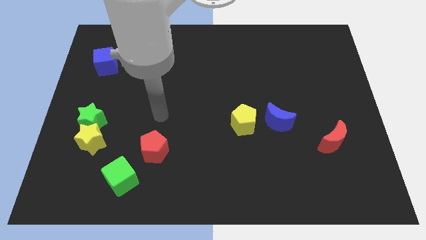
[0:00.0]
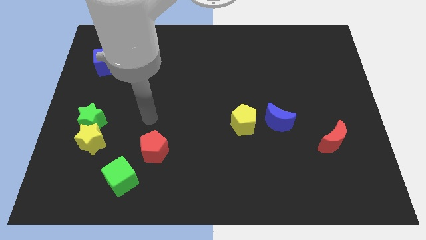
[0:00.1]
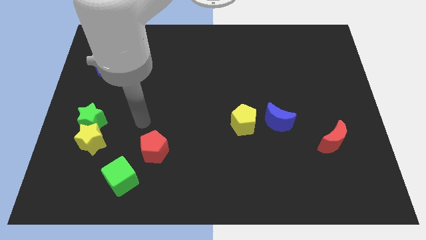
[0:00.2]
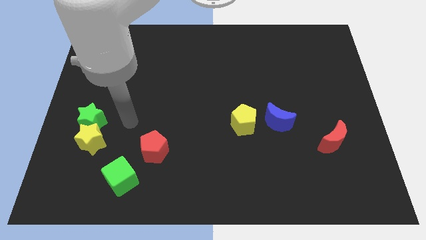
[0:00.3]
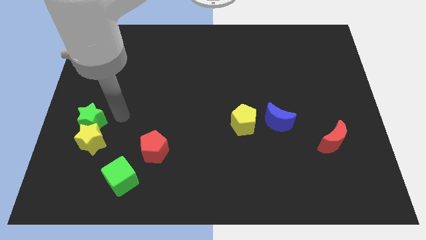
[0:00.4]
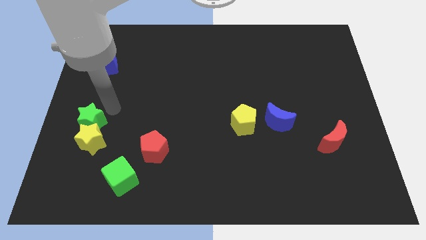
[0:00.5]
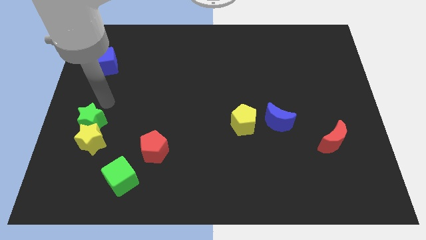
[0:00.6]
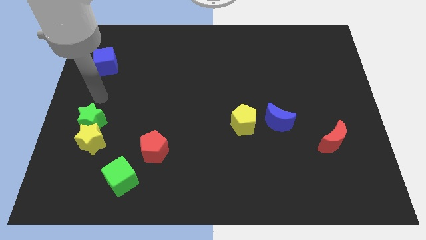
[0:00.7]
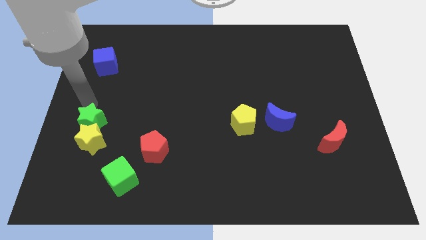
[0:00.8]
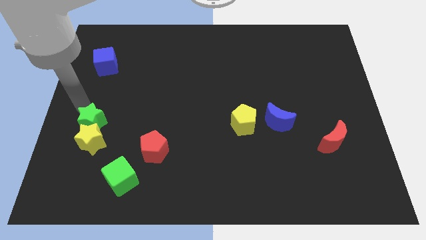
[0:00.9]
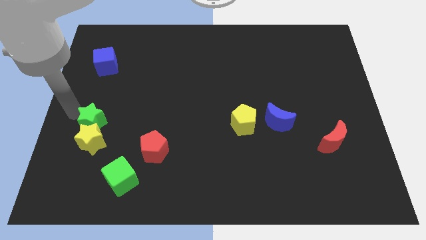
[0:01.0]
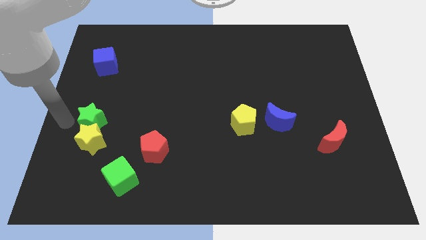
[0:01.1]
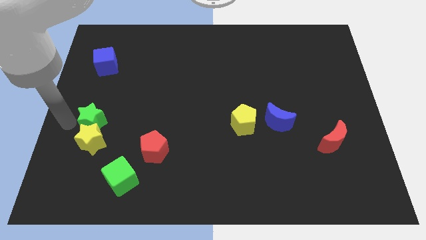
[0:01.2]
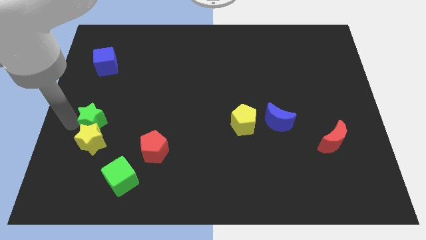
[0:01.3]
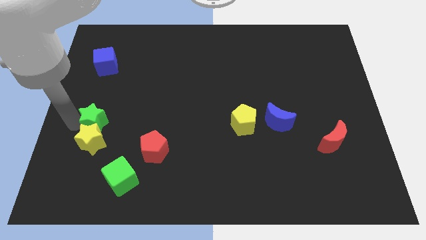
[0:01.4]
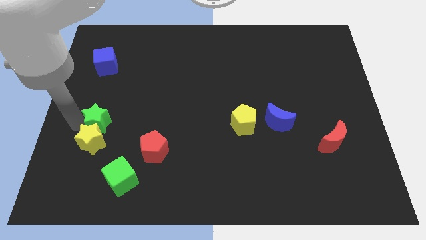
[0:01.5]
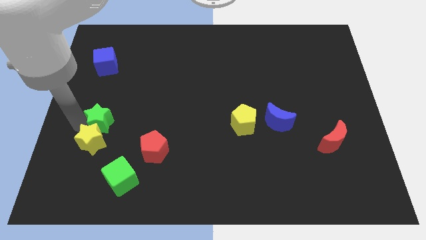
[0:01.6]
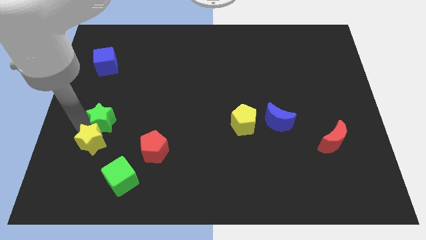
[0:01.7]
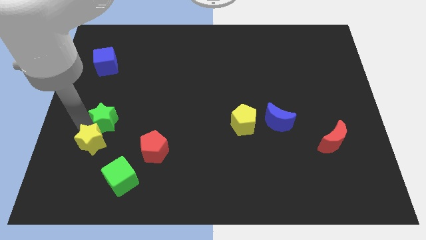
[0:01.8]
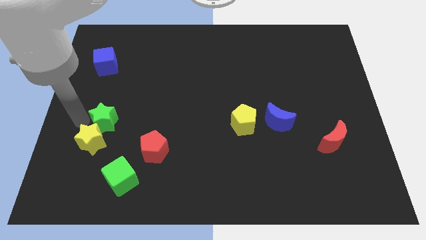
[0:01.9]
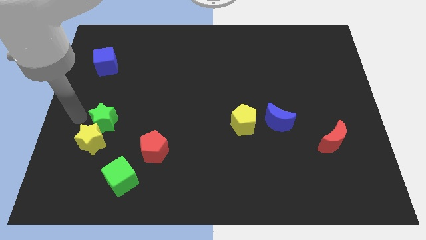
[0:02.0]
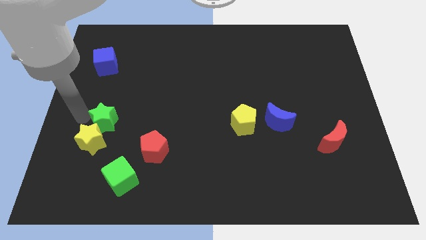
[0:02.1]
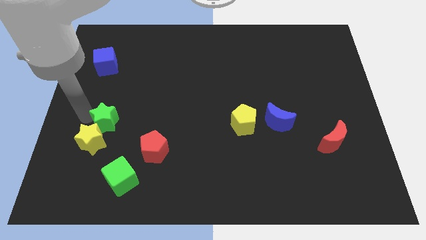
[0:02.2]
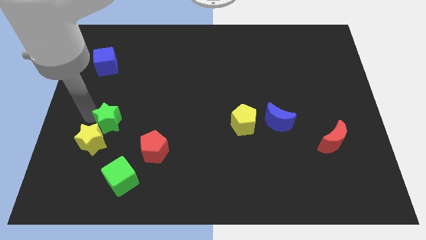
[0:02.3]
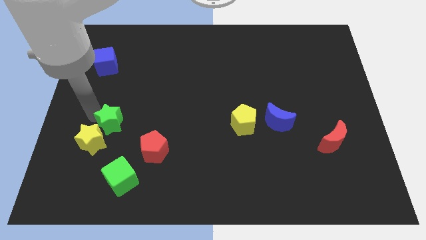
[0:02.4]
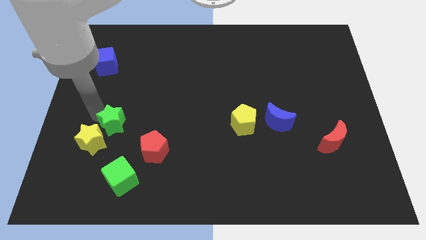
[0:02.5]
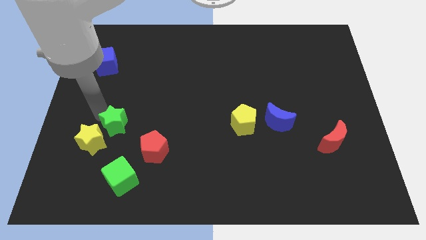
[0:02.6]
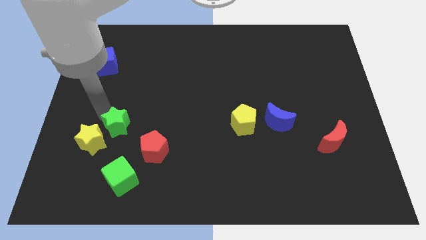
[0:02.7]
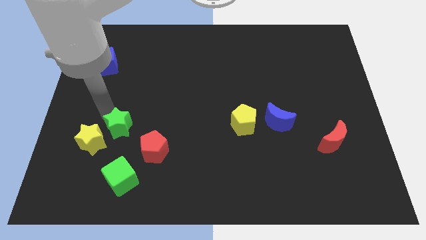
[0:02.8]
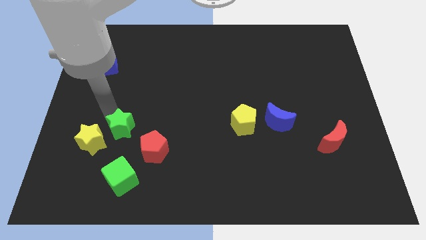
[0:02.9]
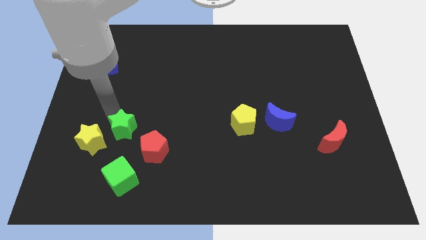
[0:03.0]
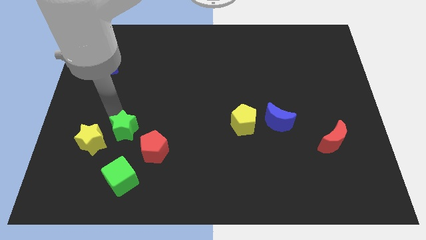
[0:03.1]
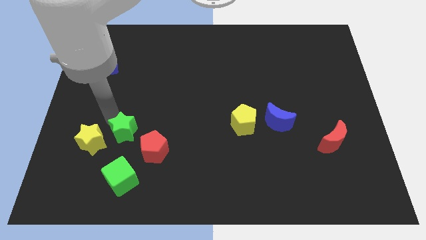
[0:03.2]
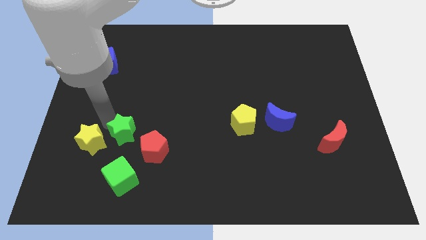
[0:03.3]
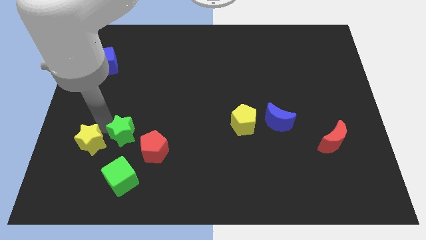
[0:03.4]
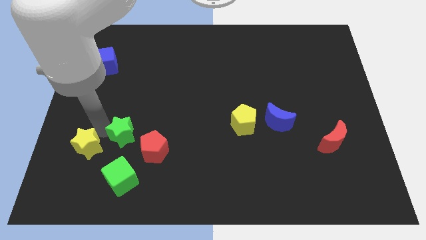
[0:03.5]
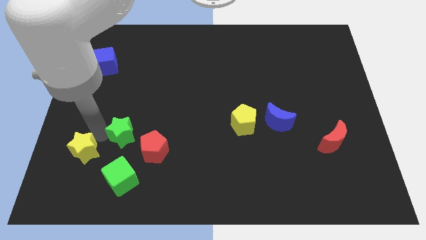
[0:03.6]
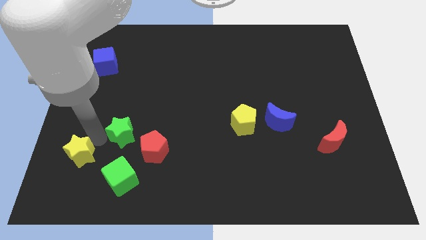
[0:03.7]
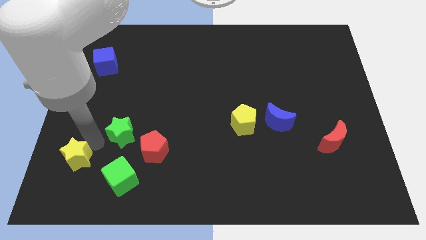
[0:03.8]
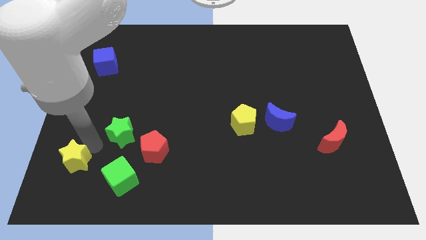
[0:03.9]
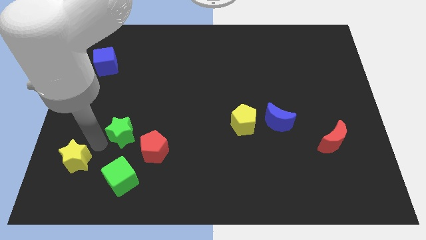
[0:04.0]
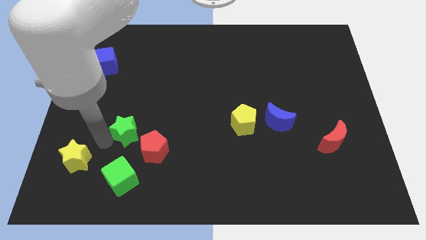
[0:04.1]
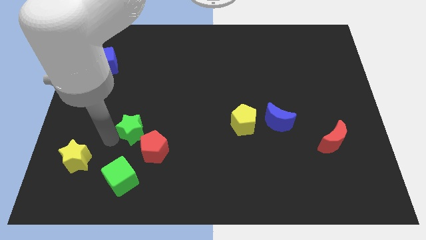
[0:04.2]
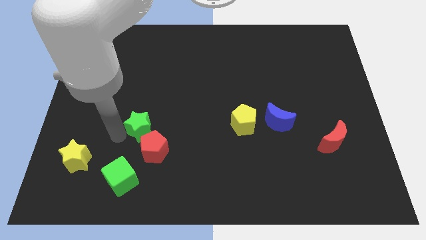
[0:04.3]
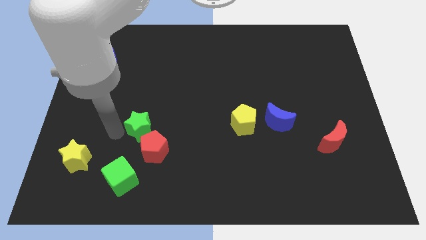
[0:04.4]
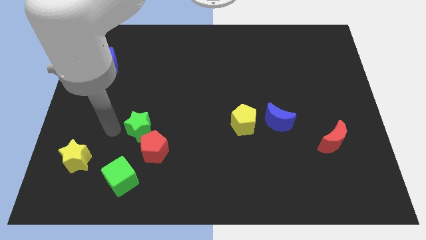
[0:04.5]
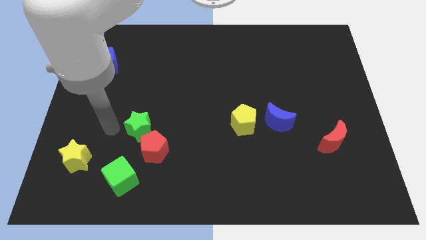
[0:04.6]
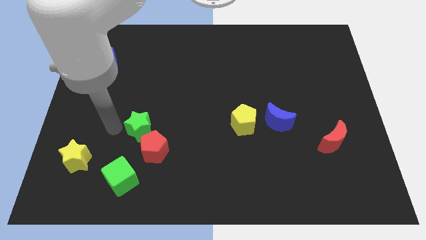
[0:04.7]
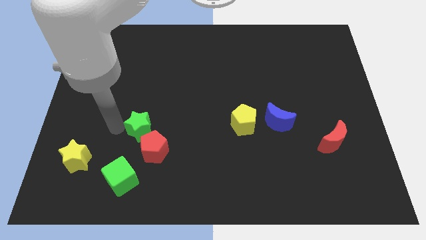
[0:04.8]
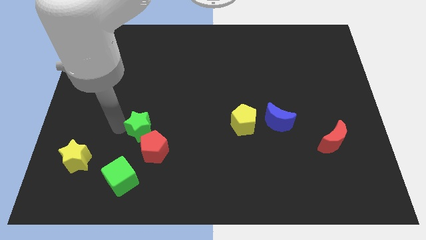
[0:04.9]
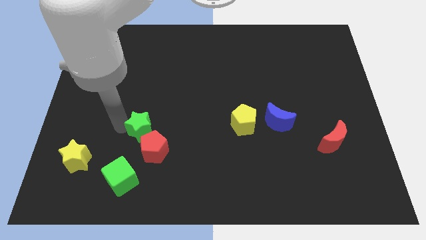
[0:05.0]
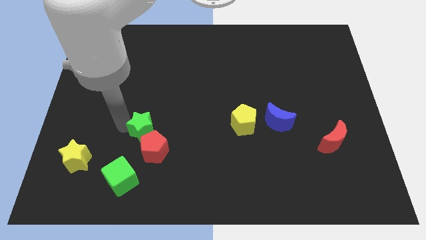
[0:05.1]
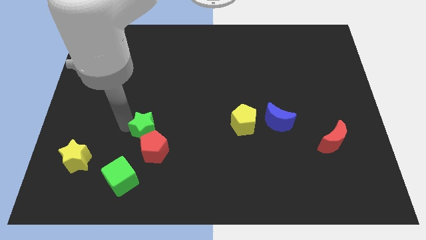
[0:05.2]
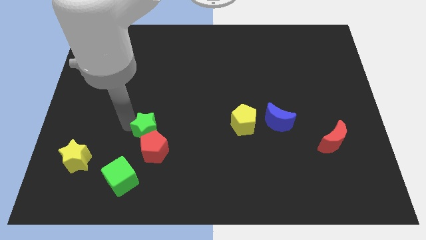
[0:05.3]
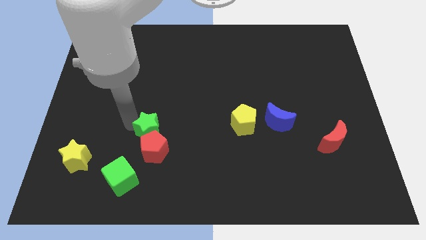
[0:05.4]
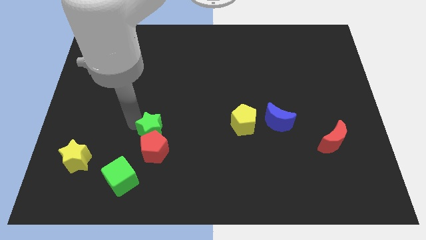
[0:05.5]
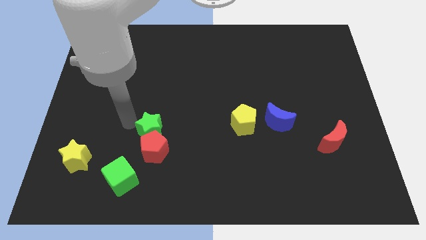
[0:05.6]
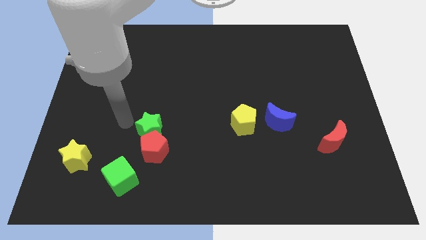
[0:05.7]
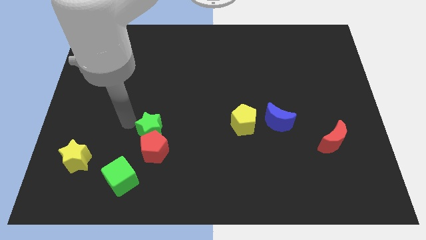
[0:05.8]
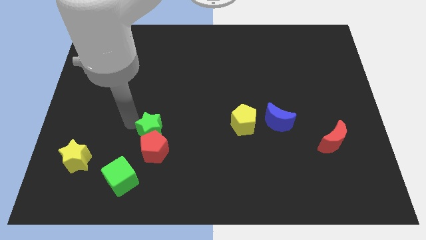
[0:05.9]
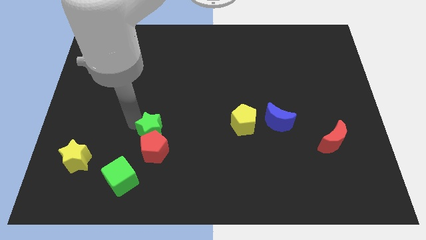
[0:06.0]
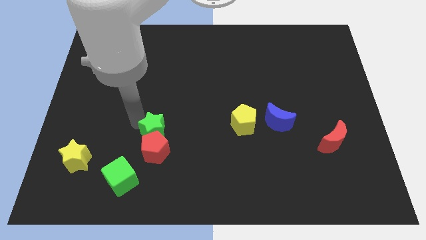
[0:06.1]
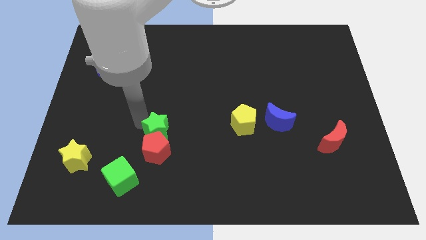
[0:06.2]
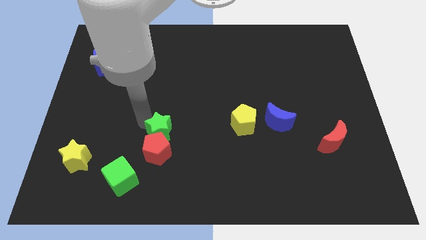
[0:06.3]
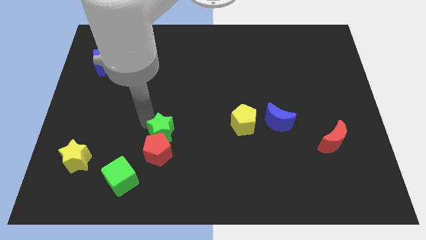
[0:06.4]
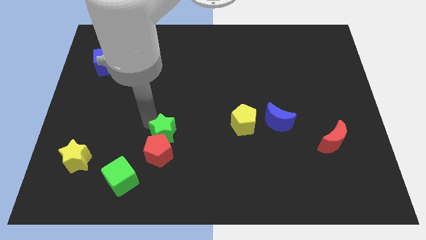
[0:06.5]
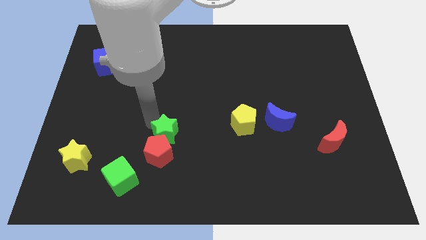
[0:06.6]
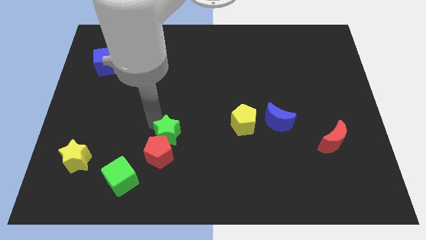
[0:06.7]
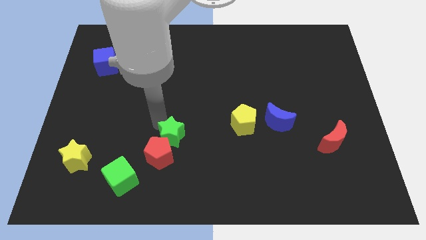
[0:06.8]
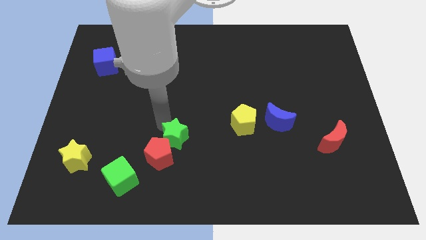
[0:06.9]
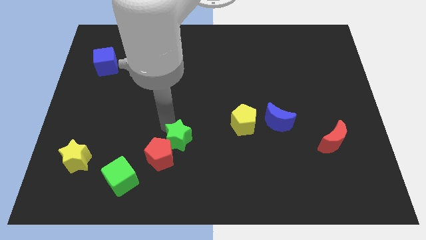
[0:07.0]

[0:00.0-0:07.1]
push the green star right of the red pentagon

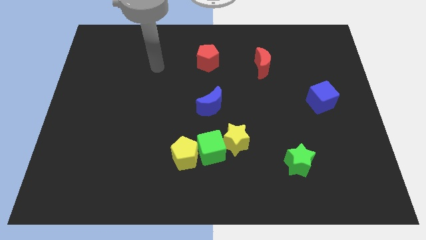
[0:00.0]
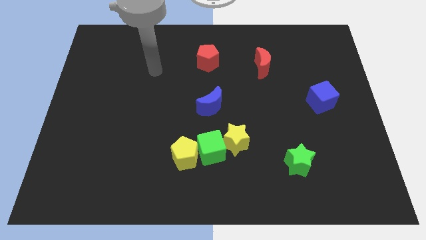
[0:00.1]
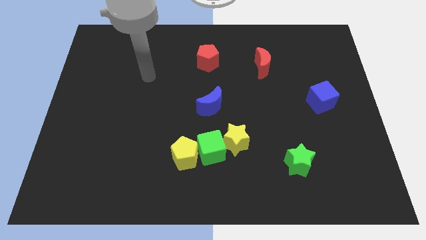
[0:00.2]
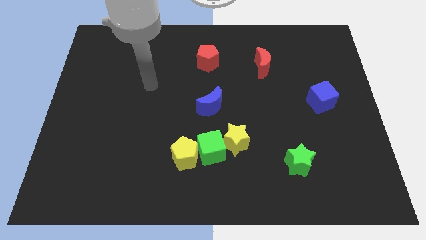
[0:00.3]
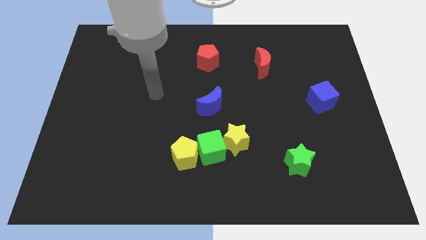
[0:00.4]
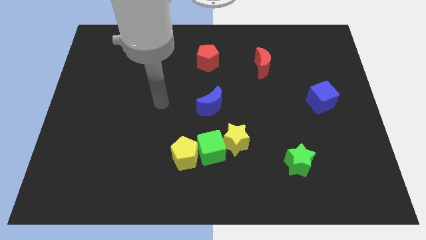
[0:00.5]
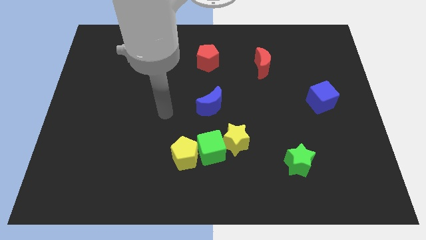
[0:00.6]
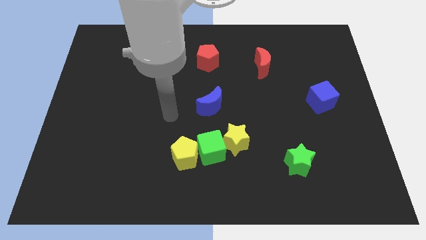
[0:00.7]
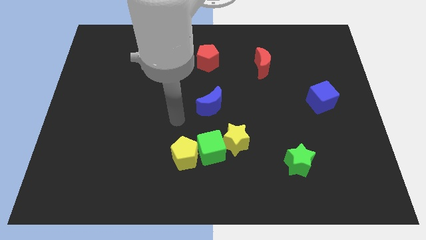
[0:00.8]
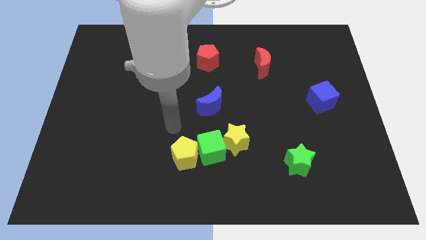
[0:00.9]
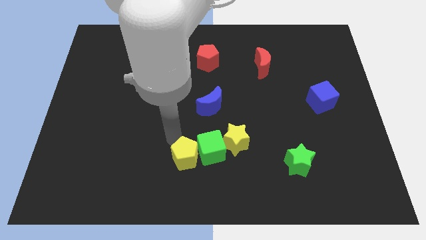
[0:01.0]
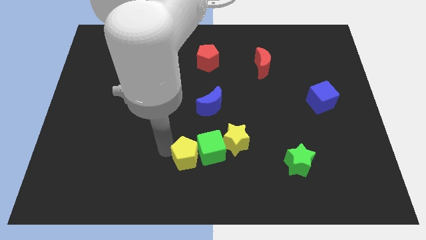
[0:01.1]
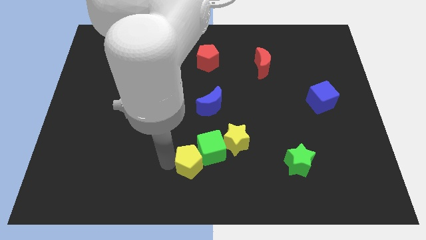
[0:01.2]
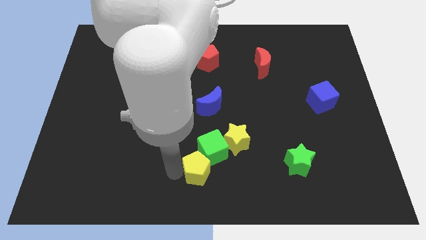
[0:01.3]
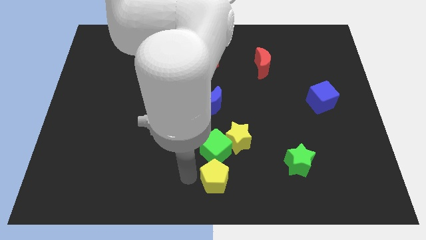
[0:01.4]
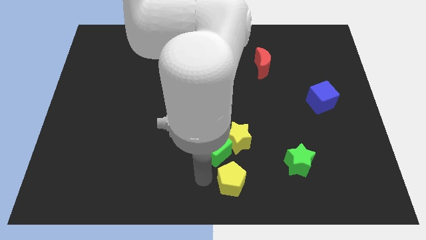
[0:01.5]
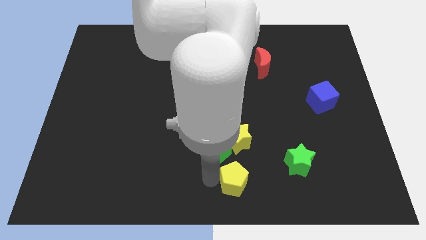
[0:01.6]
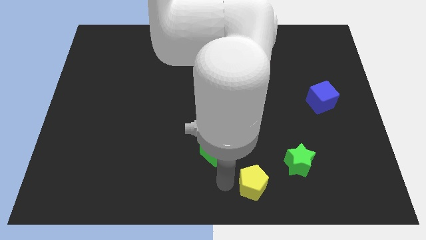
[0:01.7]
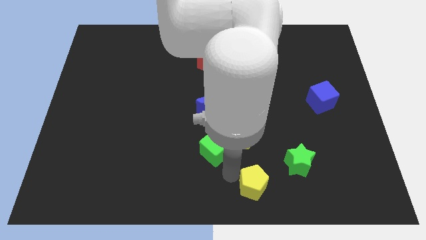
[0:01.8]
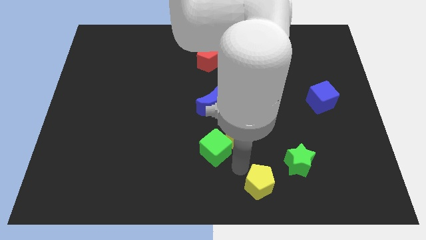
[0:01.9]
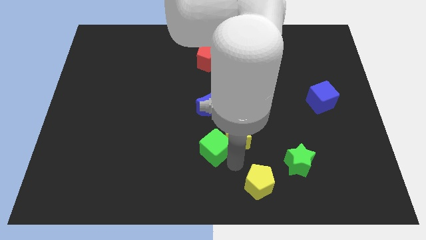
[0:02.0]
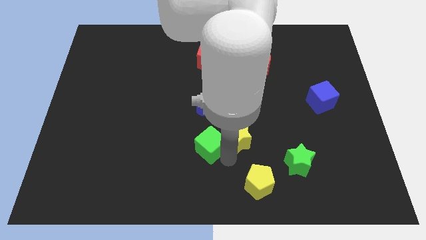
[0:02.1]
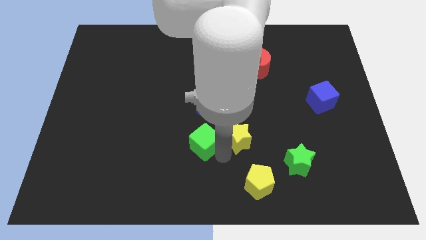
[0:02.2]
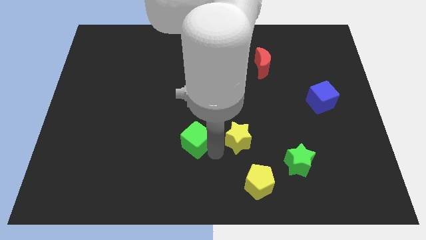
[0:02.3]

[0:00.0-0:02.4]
push the green cube to the bottom left side of the blue moon
